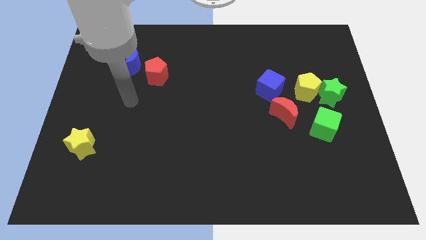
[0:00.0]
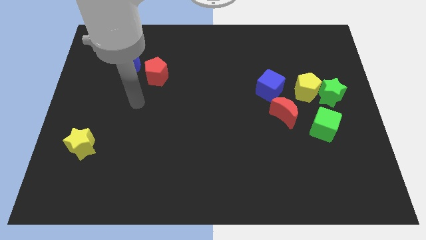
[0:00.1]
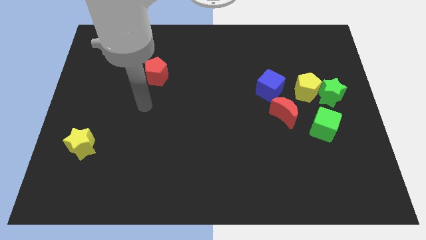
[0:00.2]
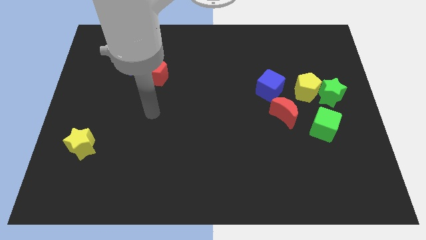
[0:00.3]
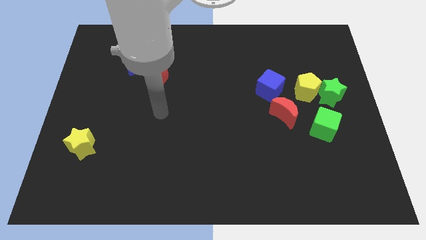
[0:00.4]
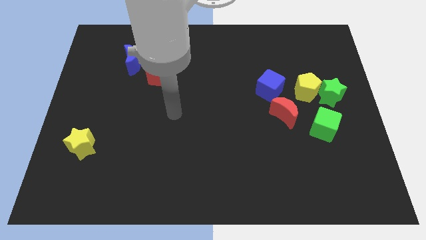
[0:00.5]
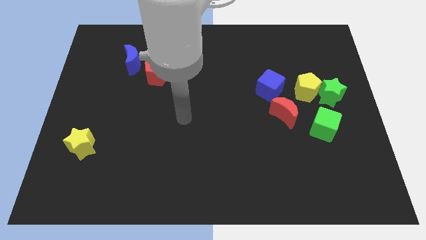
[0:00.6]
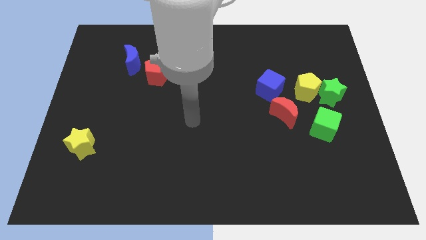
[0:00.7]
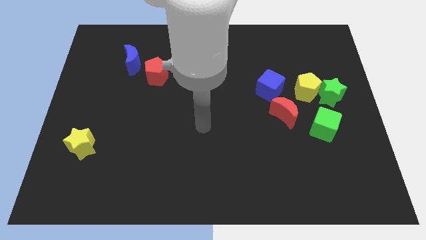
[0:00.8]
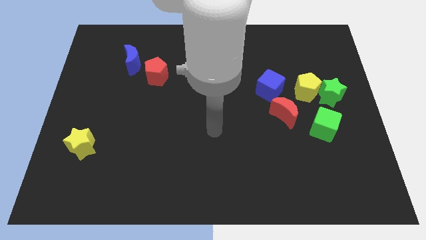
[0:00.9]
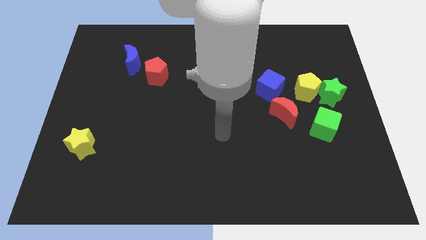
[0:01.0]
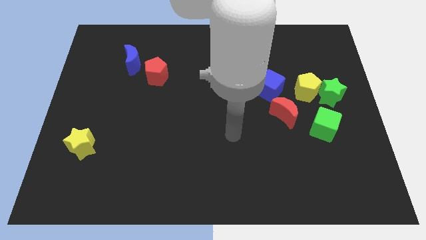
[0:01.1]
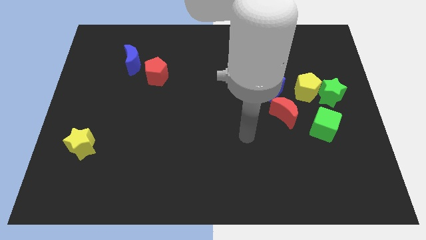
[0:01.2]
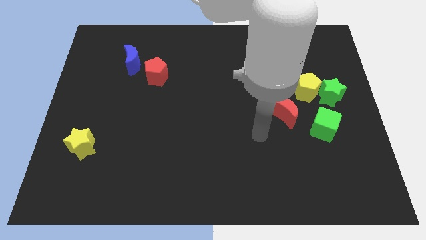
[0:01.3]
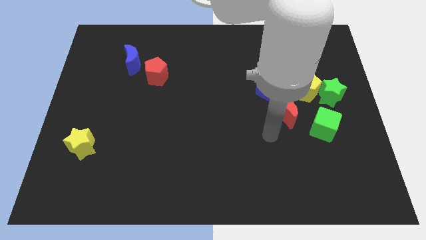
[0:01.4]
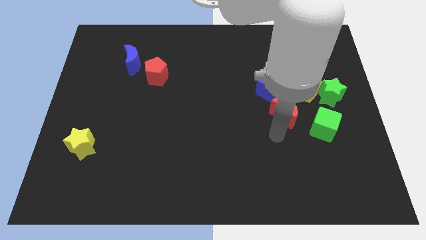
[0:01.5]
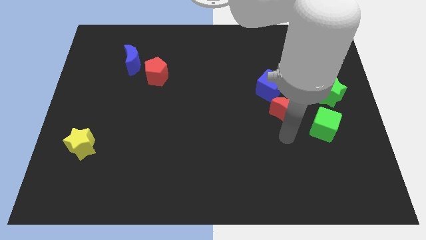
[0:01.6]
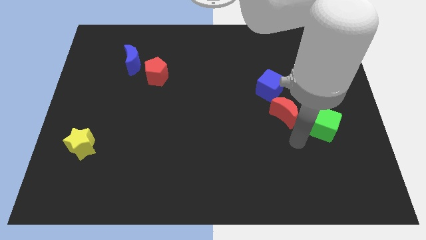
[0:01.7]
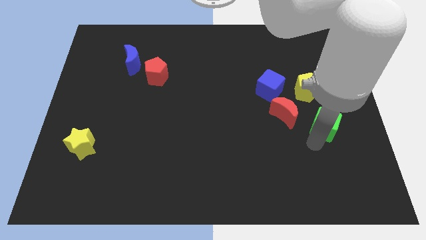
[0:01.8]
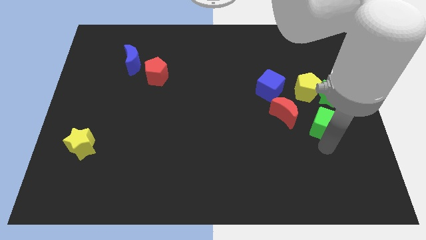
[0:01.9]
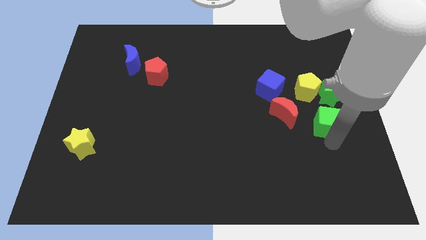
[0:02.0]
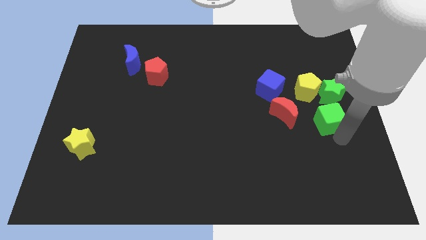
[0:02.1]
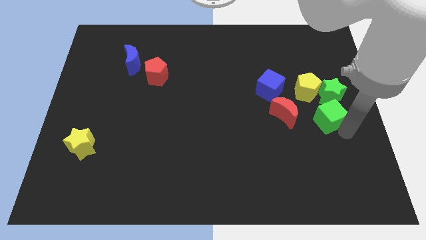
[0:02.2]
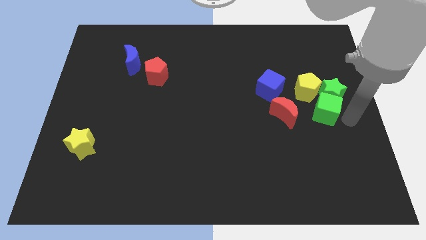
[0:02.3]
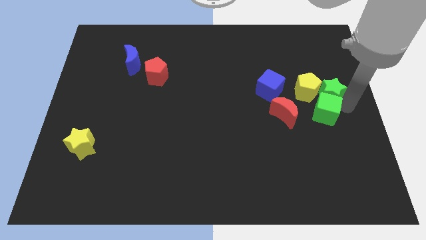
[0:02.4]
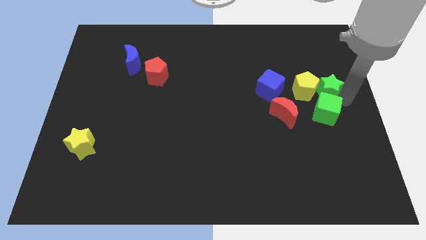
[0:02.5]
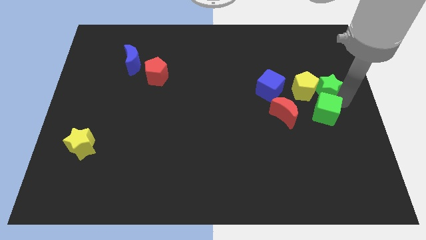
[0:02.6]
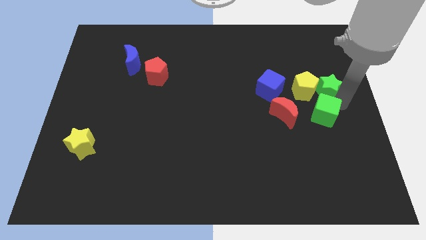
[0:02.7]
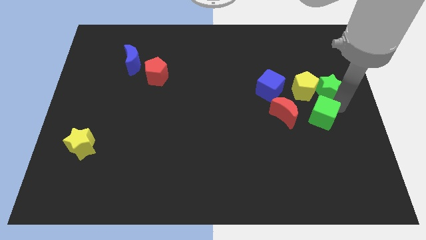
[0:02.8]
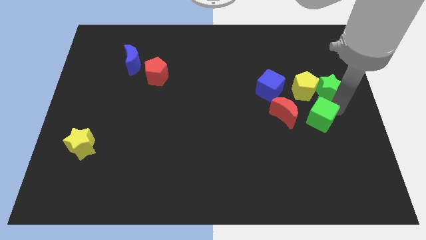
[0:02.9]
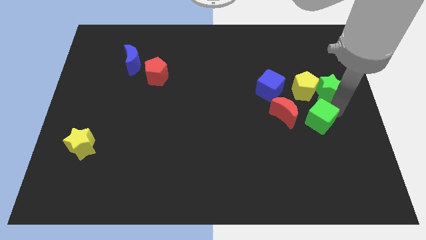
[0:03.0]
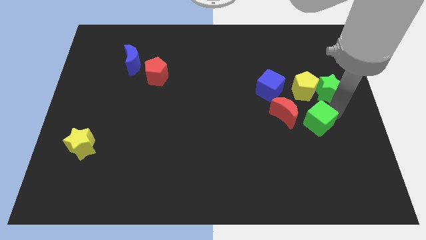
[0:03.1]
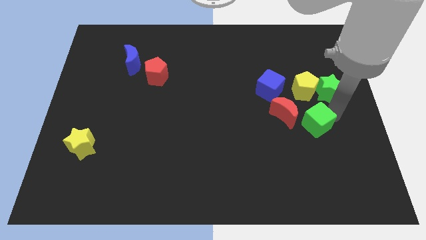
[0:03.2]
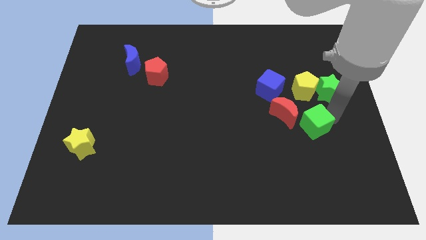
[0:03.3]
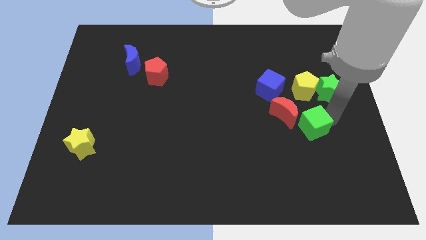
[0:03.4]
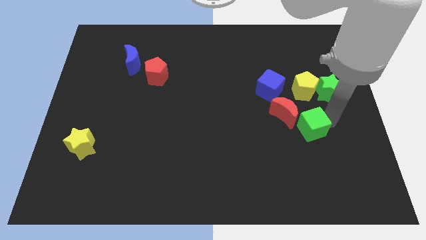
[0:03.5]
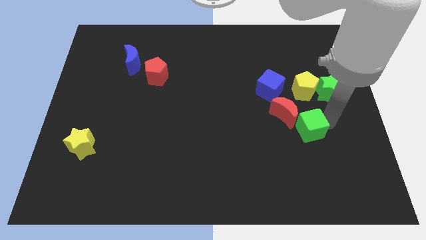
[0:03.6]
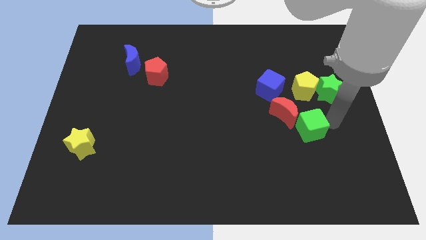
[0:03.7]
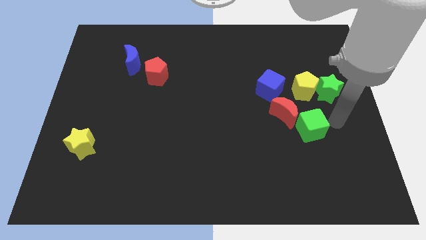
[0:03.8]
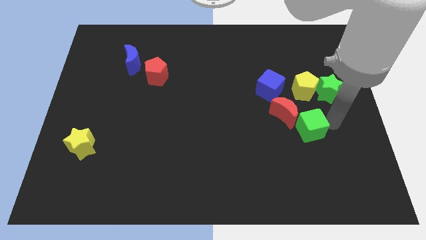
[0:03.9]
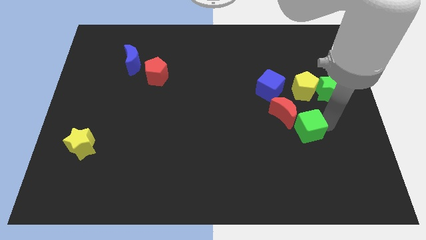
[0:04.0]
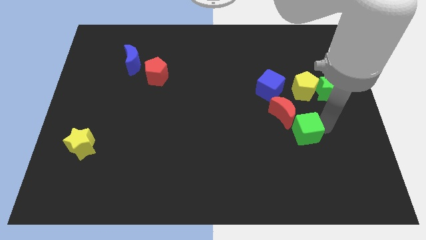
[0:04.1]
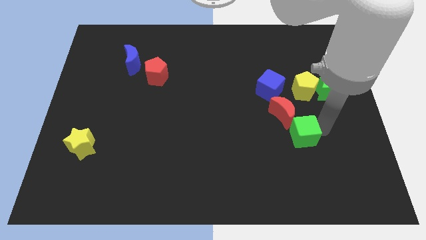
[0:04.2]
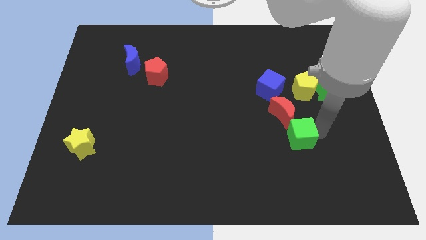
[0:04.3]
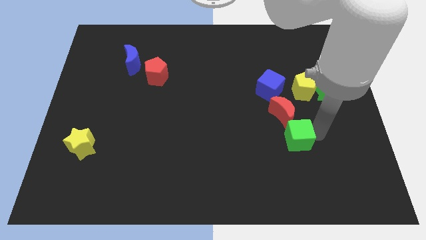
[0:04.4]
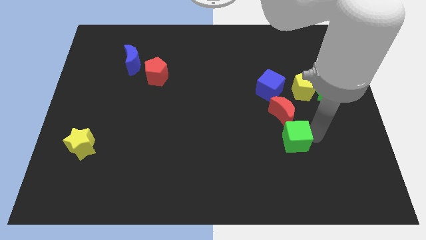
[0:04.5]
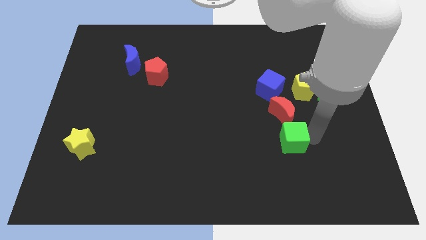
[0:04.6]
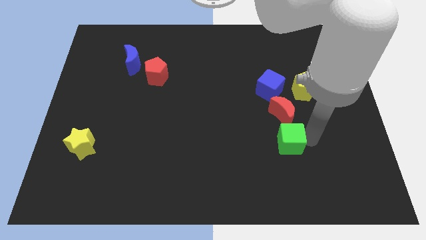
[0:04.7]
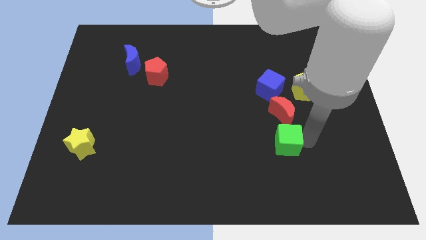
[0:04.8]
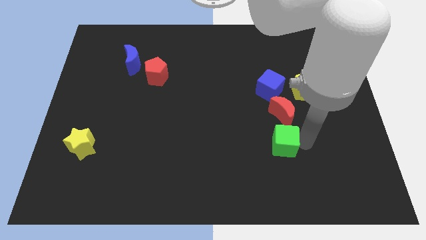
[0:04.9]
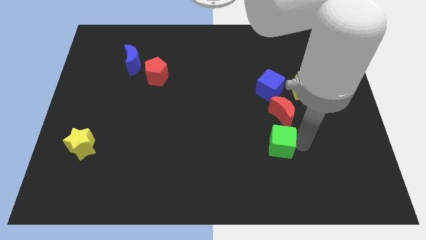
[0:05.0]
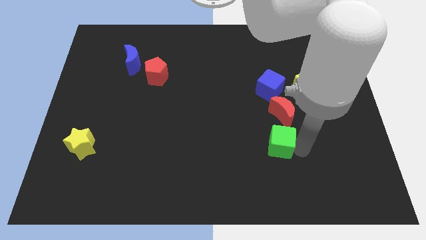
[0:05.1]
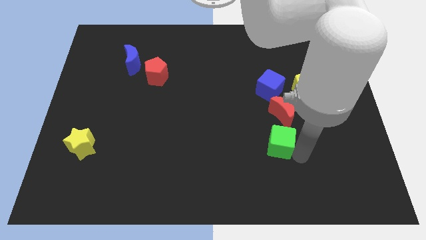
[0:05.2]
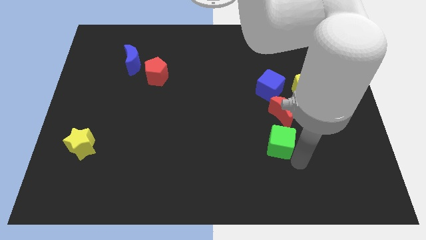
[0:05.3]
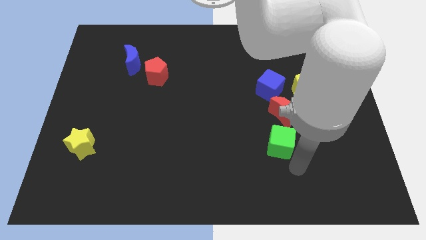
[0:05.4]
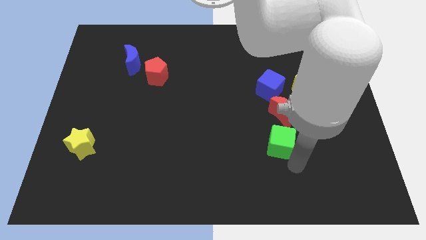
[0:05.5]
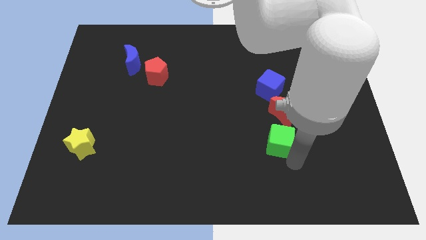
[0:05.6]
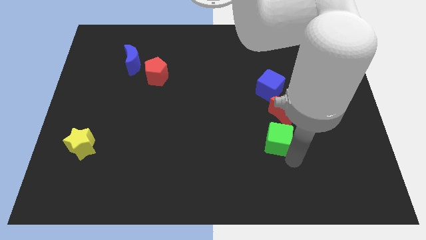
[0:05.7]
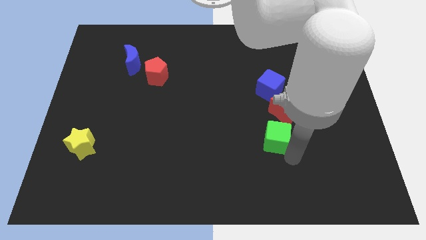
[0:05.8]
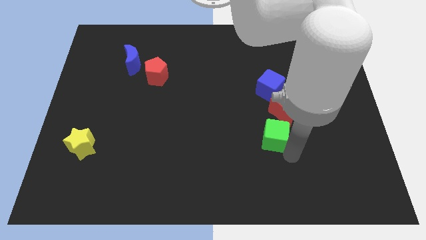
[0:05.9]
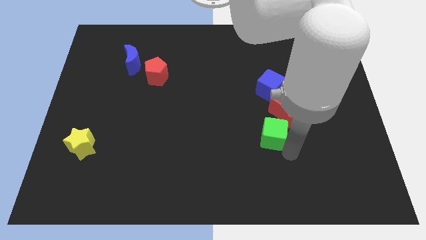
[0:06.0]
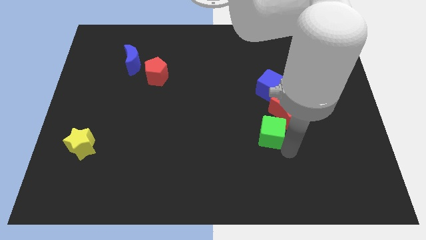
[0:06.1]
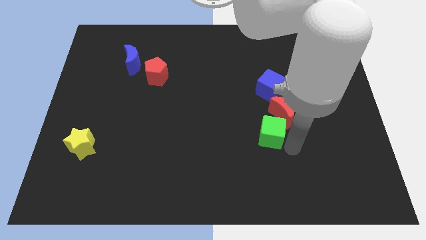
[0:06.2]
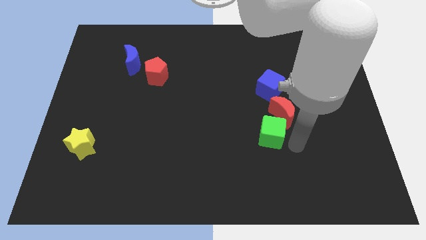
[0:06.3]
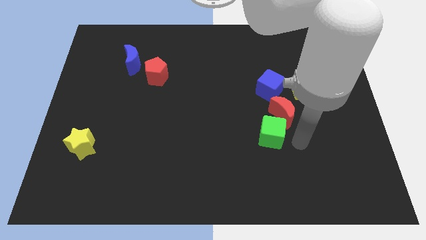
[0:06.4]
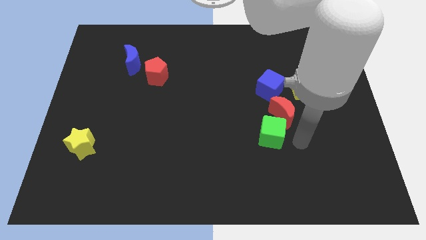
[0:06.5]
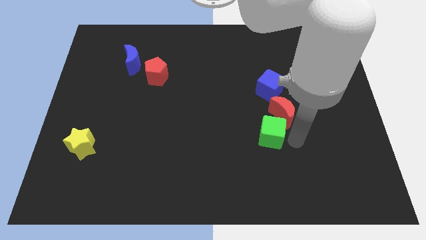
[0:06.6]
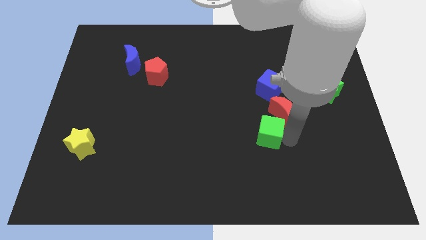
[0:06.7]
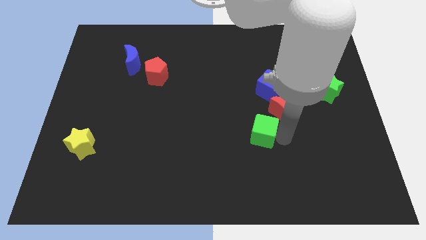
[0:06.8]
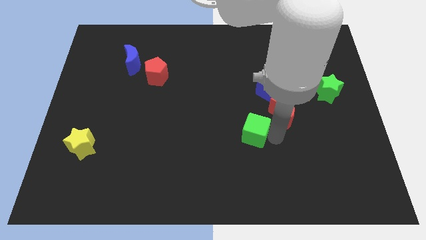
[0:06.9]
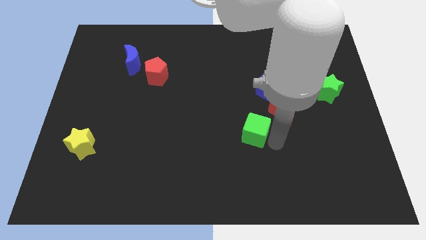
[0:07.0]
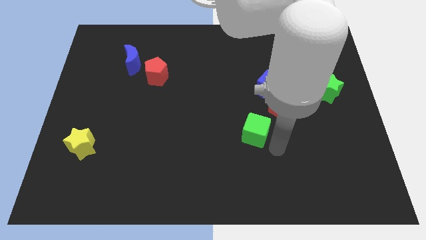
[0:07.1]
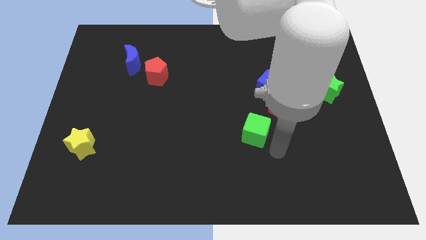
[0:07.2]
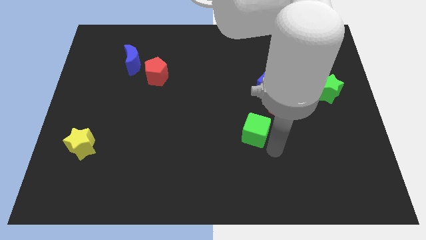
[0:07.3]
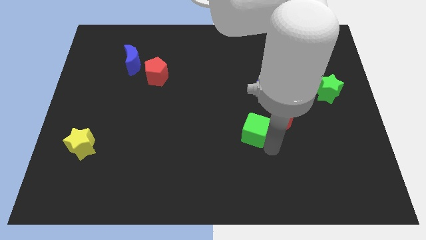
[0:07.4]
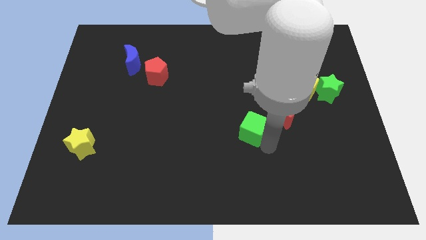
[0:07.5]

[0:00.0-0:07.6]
slide the green cube to the center of the board

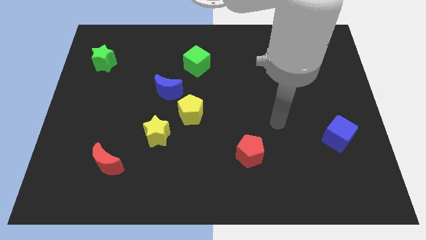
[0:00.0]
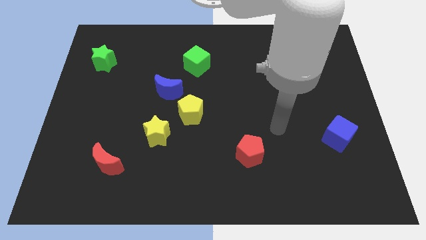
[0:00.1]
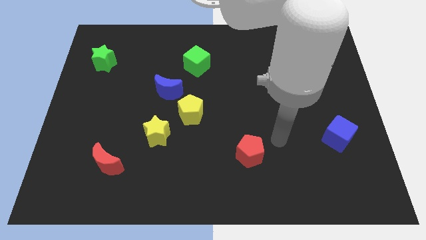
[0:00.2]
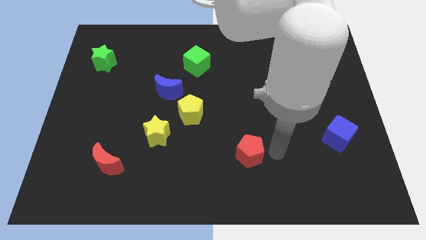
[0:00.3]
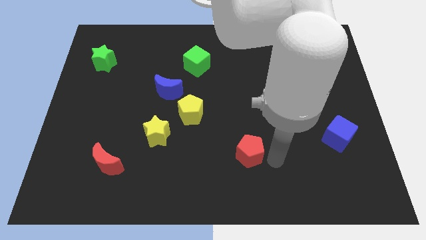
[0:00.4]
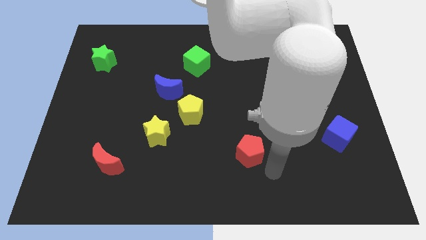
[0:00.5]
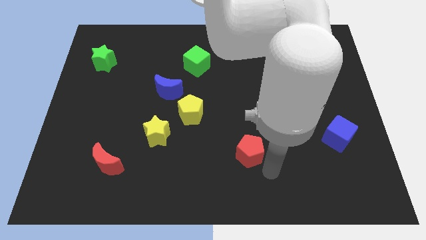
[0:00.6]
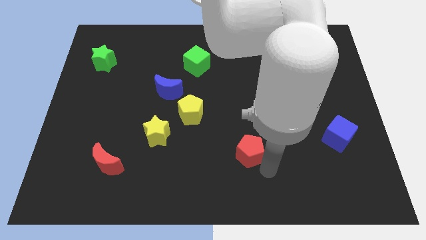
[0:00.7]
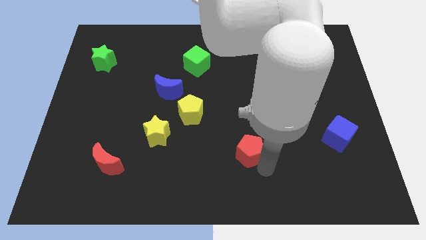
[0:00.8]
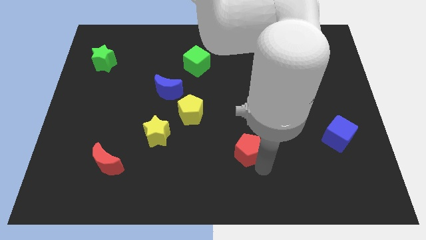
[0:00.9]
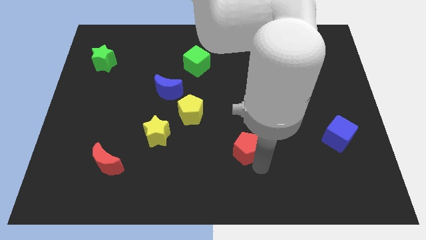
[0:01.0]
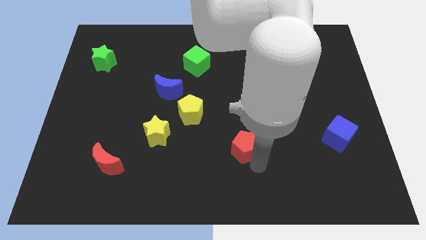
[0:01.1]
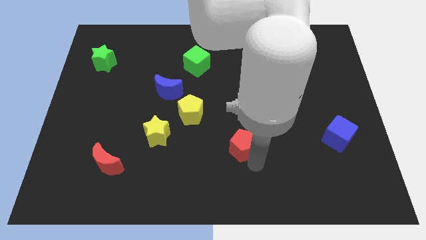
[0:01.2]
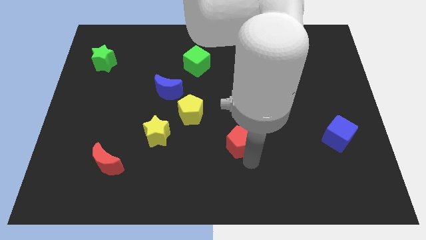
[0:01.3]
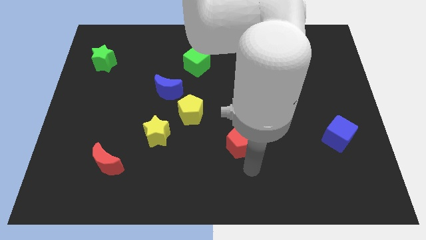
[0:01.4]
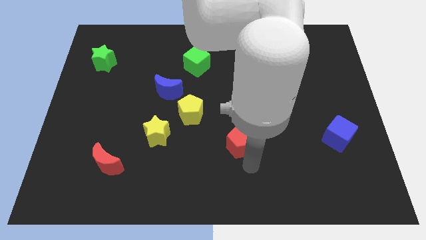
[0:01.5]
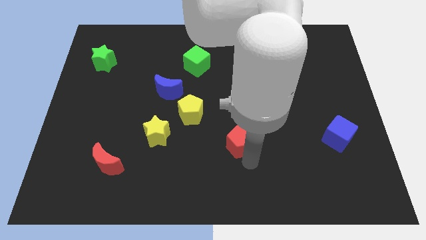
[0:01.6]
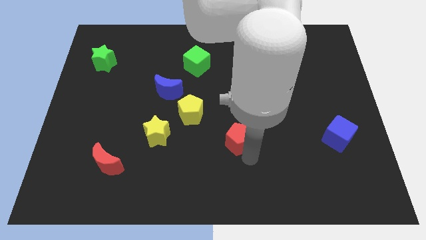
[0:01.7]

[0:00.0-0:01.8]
push the red pentagon to the middle of the board
